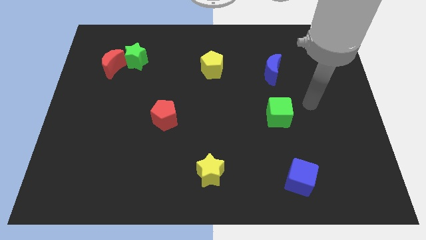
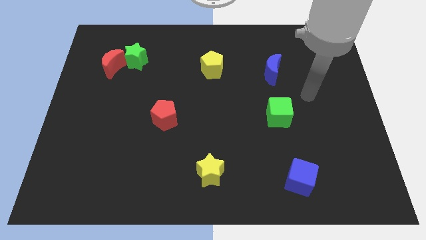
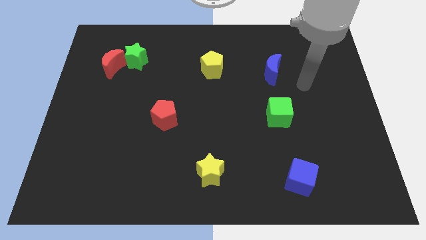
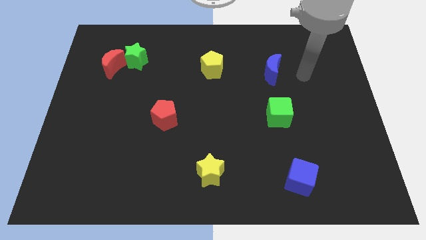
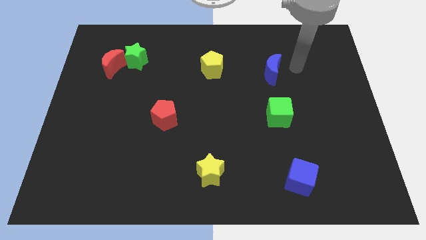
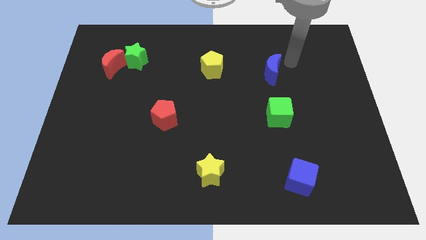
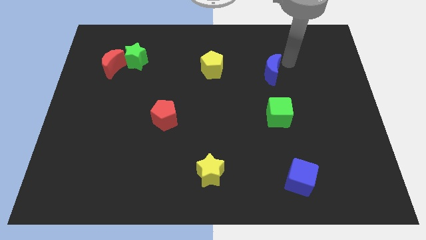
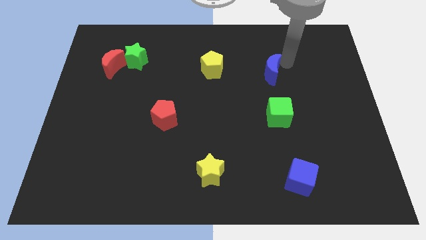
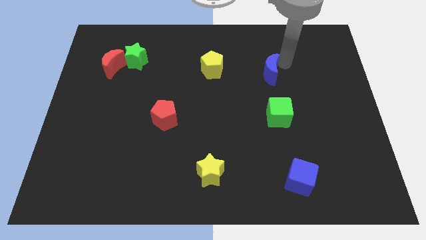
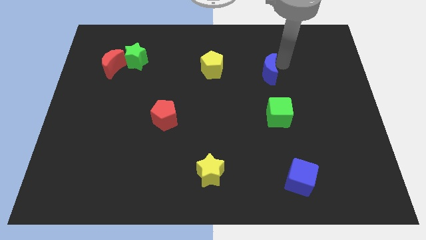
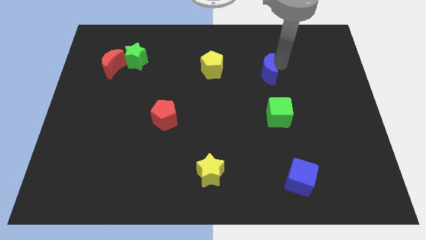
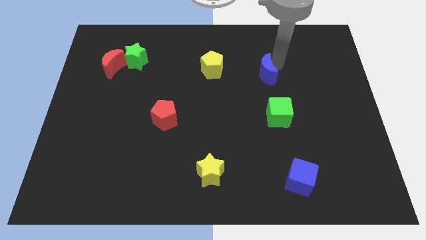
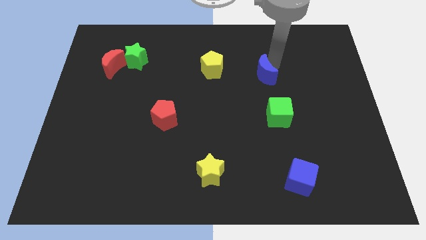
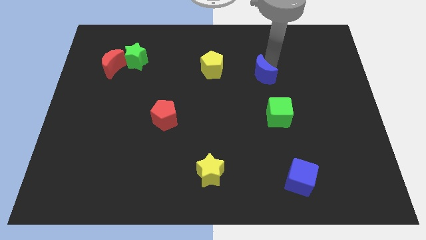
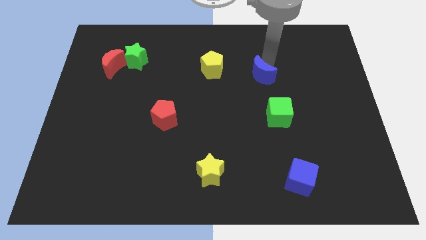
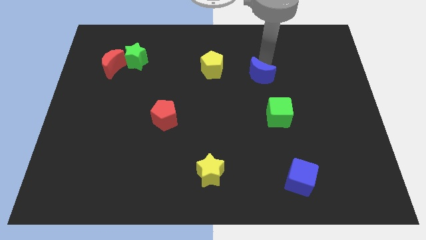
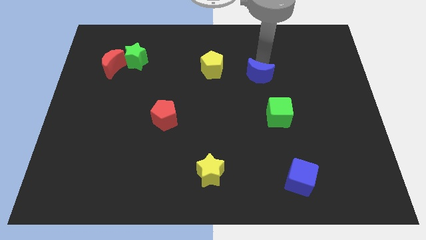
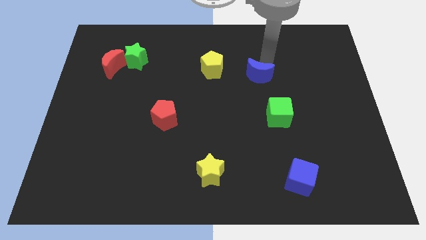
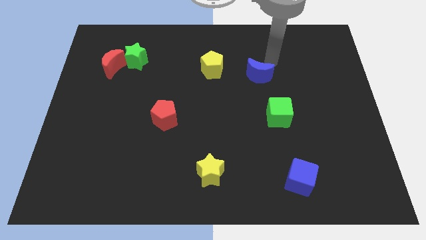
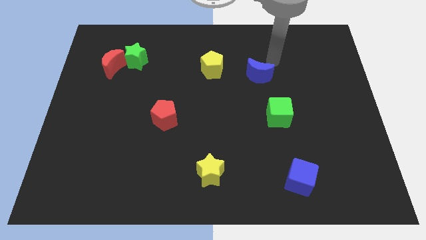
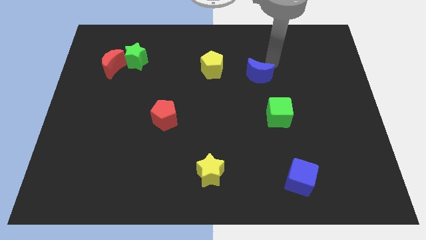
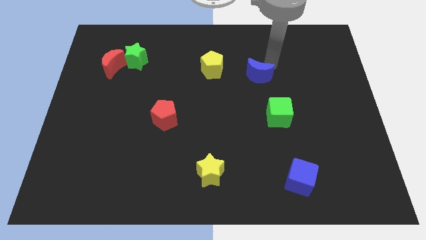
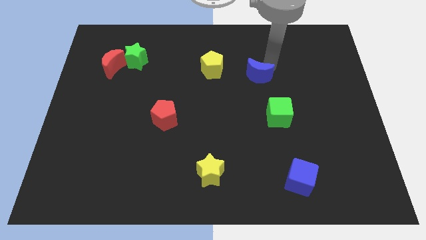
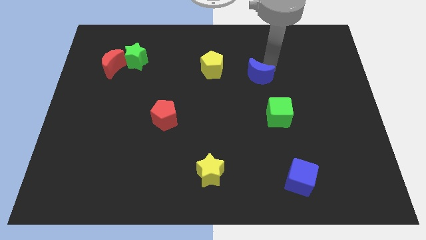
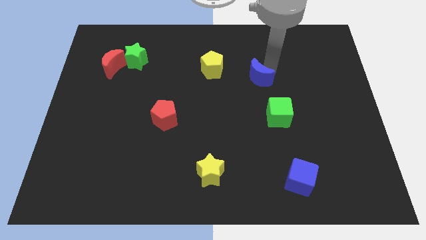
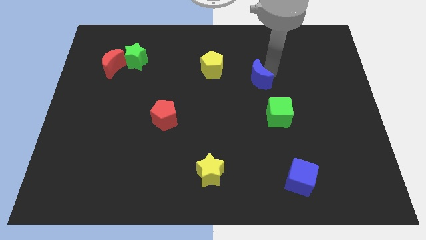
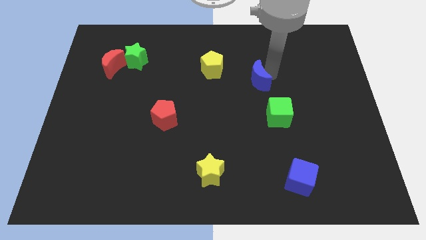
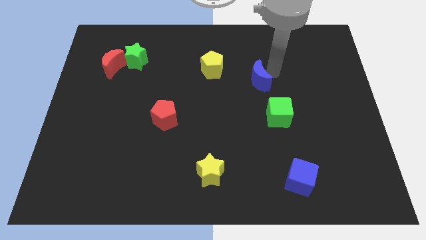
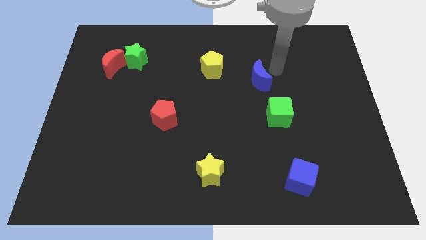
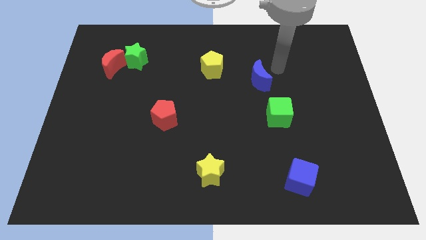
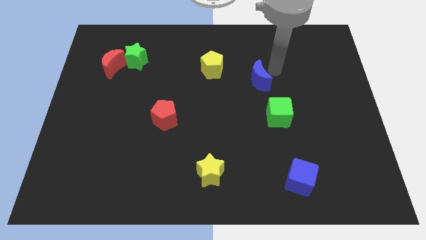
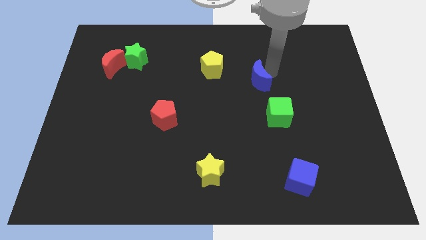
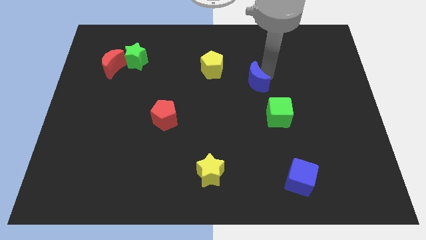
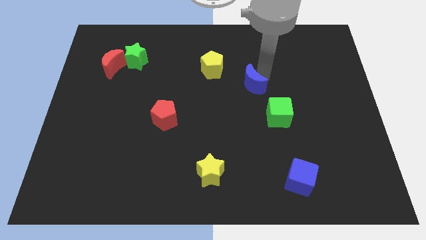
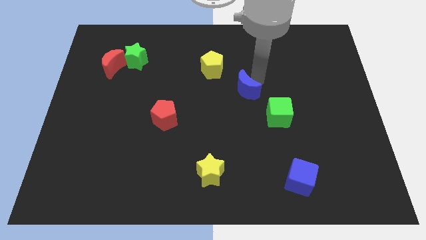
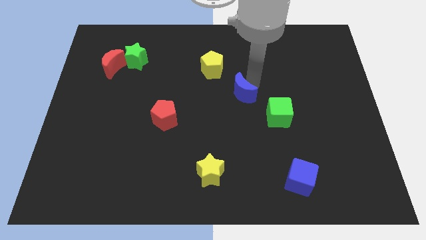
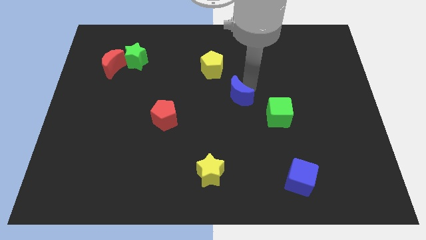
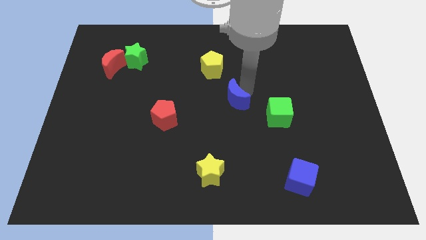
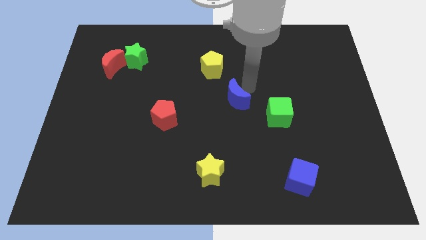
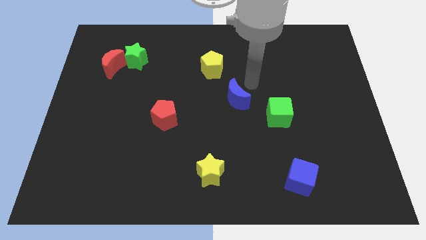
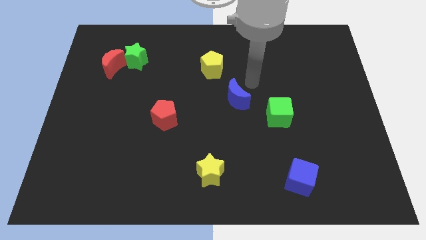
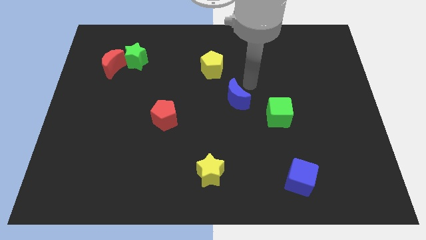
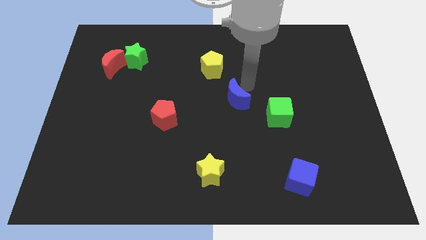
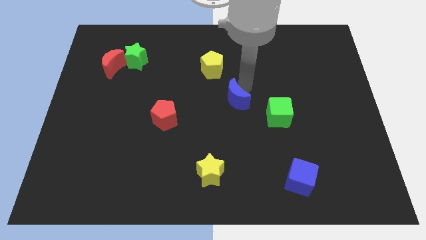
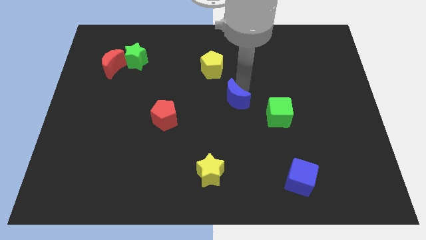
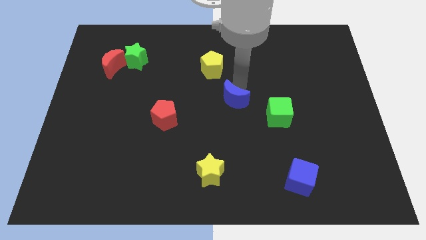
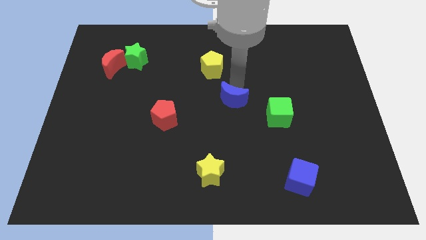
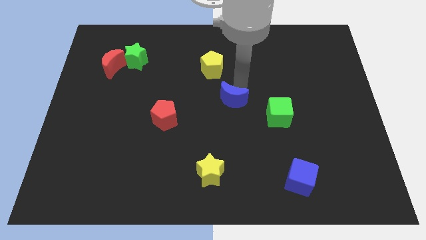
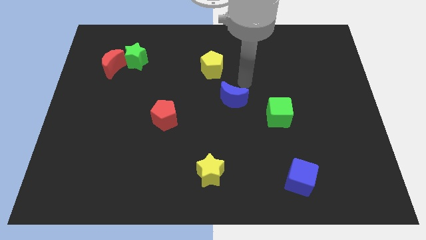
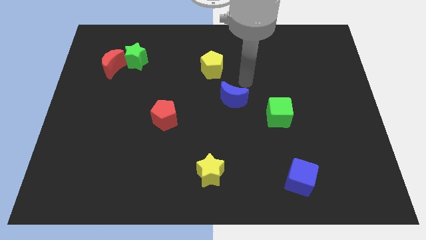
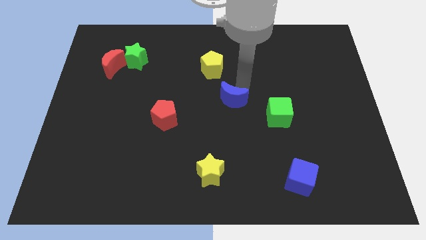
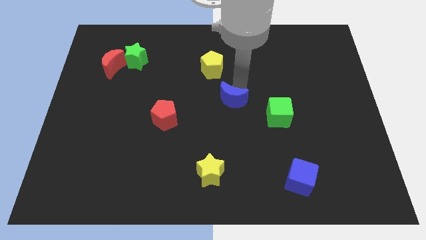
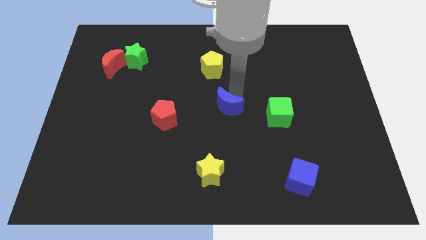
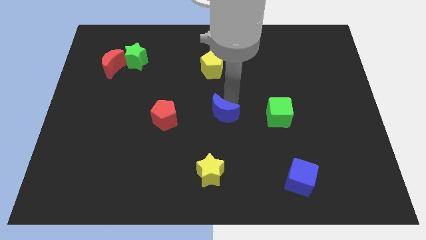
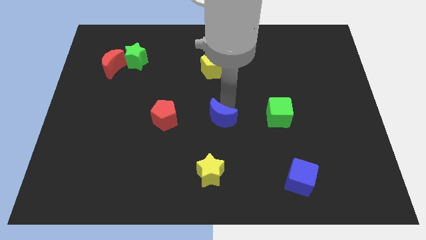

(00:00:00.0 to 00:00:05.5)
put the blue moon to the top side of the yellow star

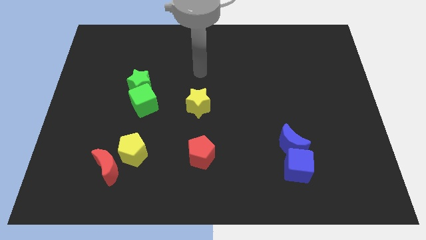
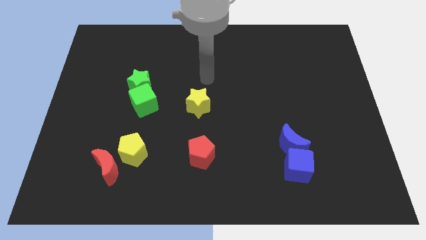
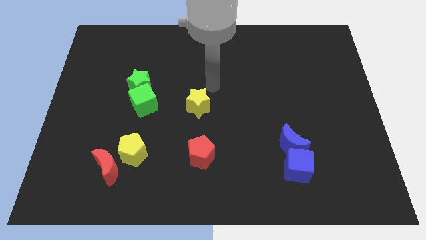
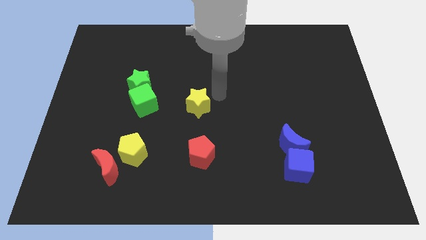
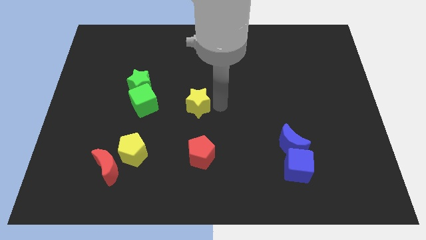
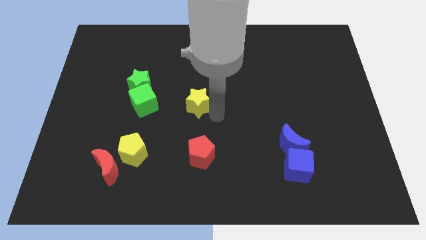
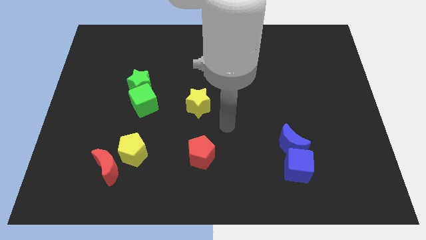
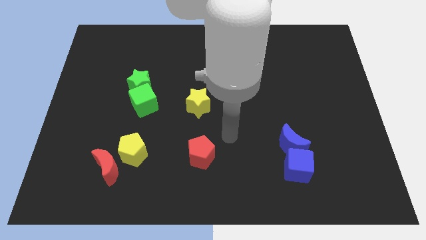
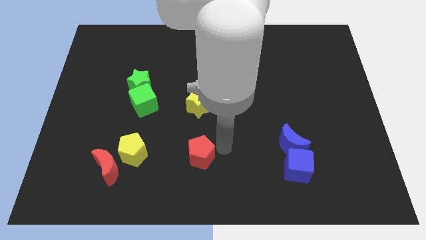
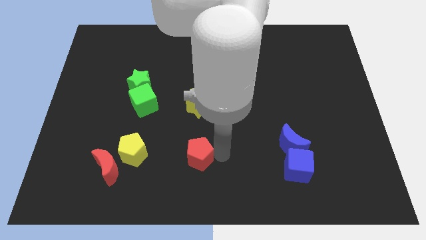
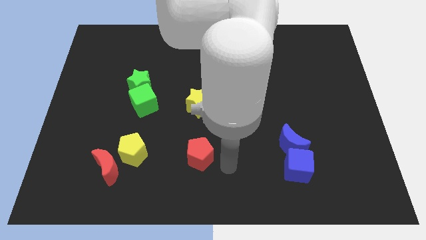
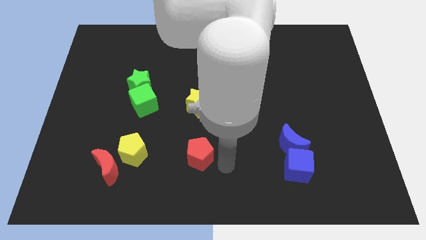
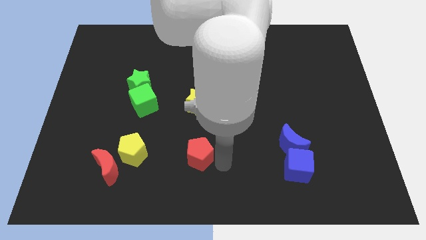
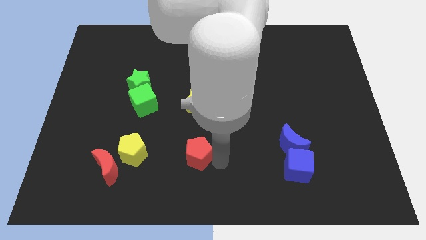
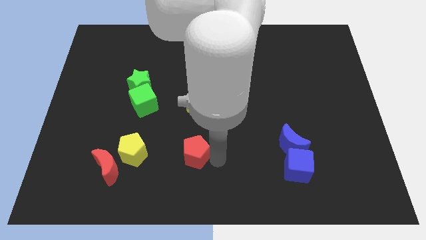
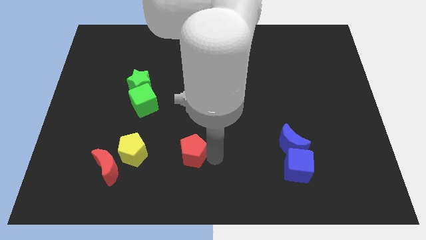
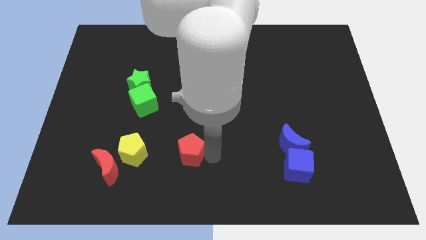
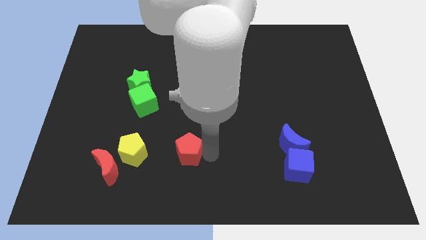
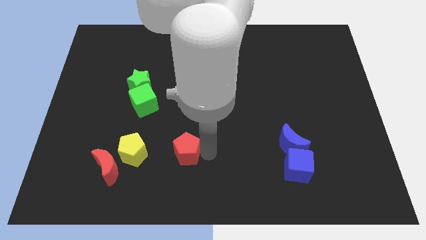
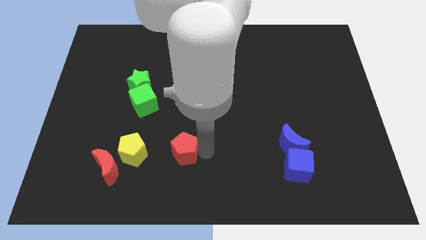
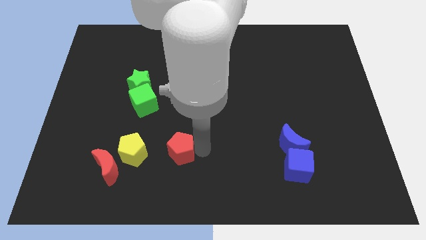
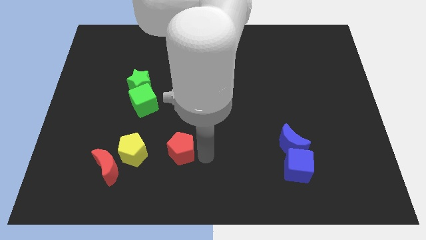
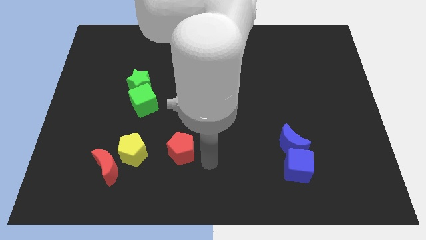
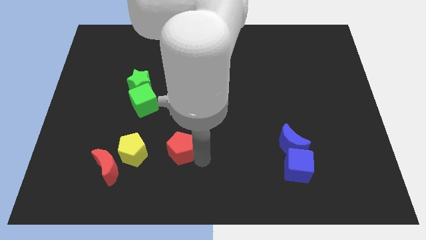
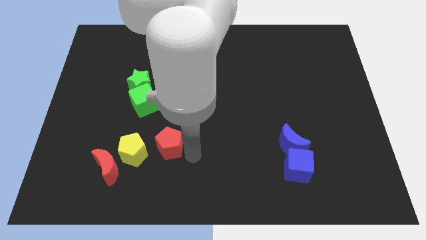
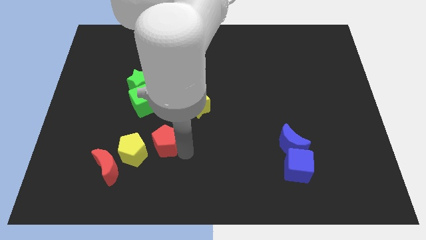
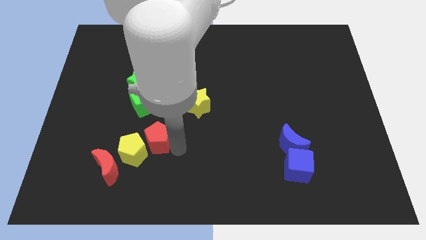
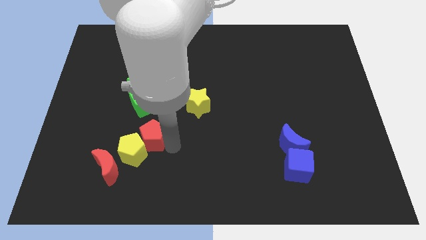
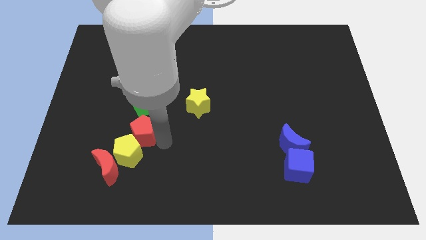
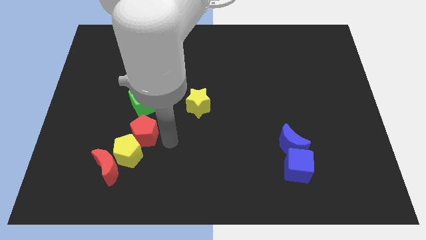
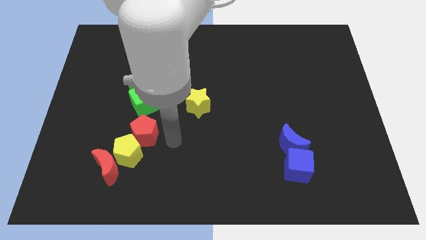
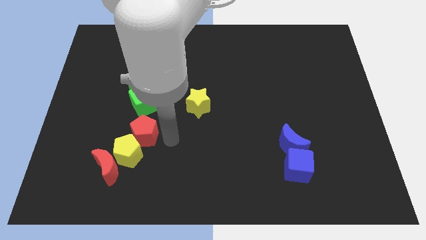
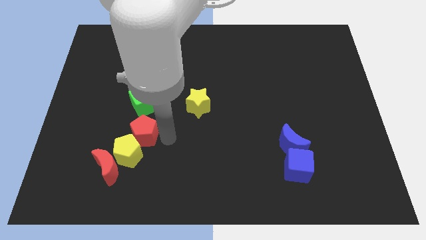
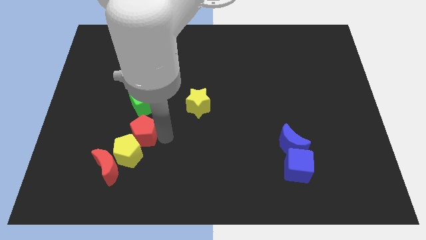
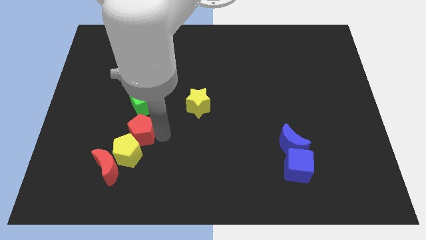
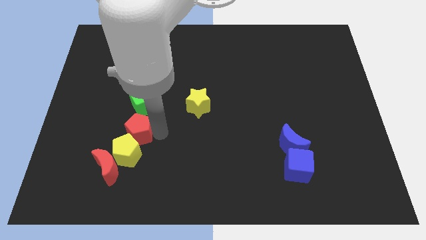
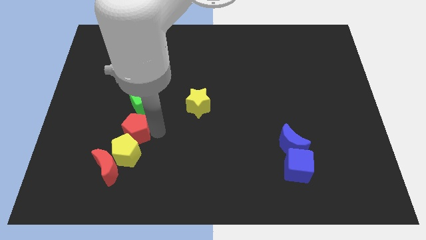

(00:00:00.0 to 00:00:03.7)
slide the red pentagon above the red moon
